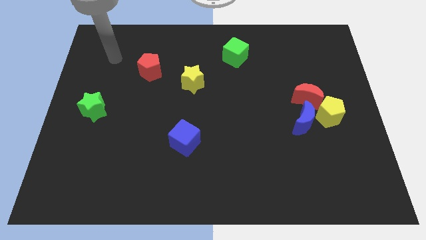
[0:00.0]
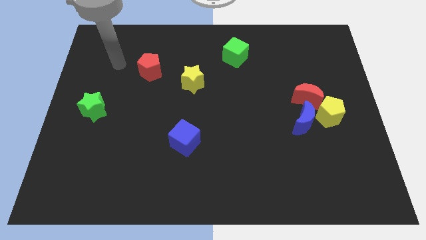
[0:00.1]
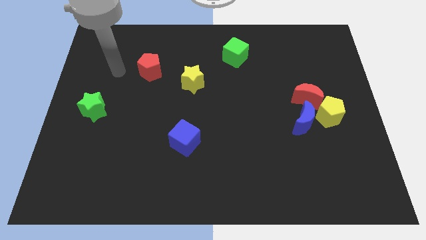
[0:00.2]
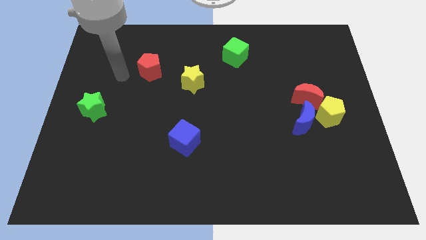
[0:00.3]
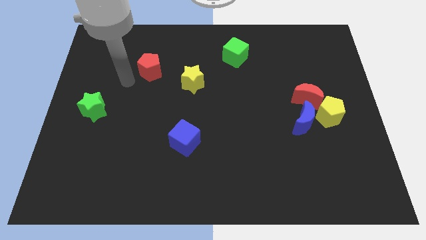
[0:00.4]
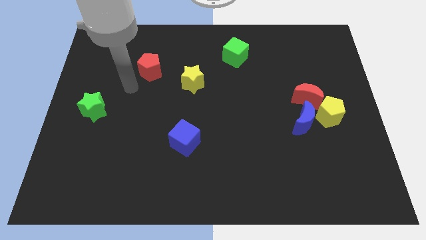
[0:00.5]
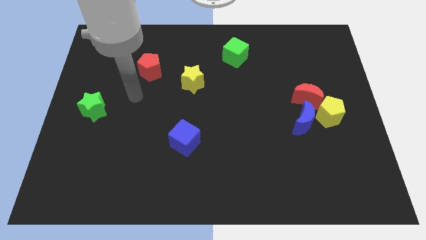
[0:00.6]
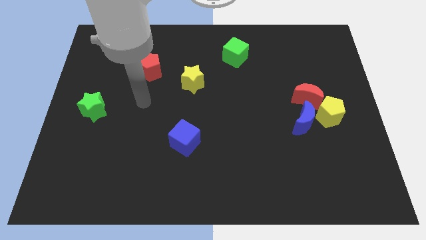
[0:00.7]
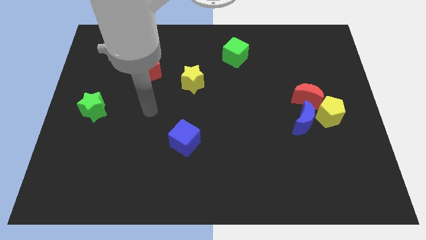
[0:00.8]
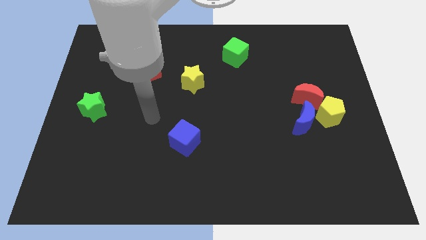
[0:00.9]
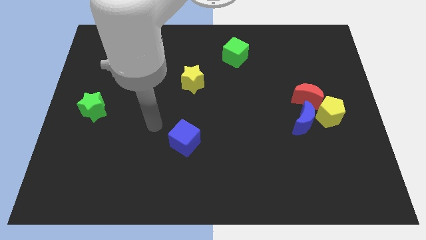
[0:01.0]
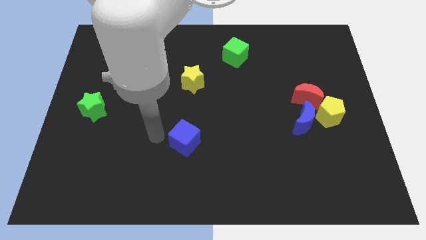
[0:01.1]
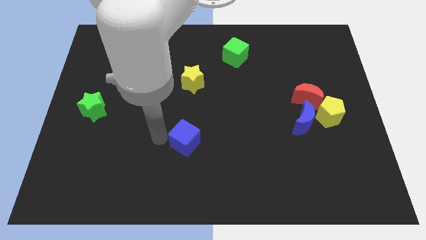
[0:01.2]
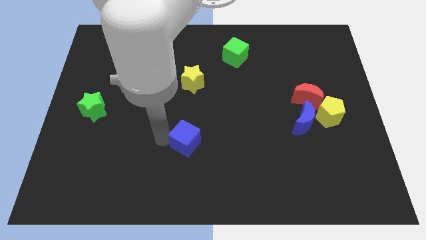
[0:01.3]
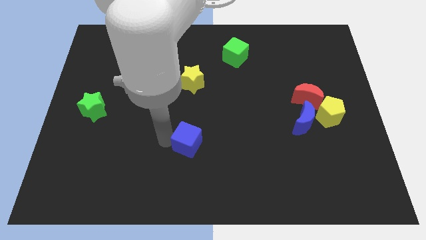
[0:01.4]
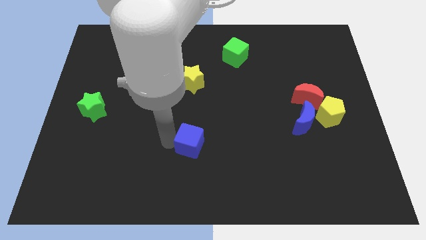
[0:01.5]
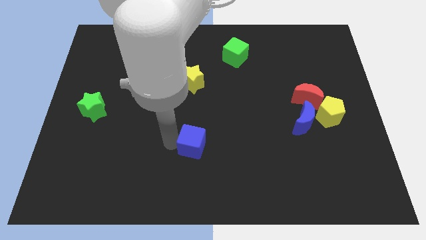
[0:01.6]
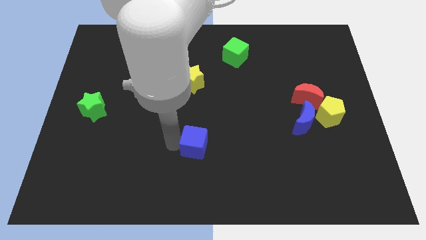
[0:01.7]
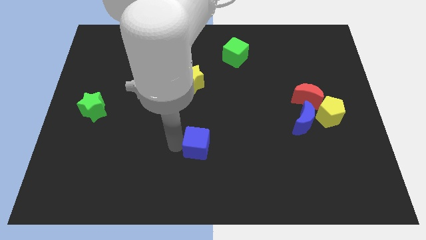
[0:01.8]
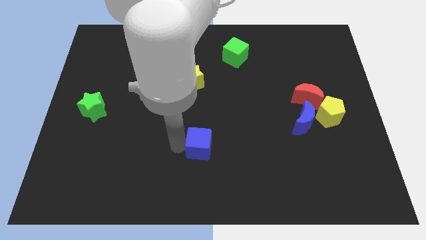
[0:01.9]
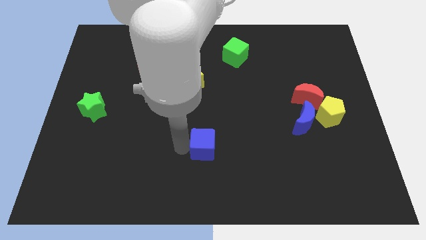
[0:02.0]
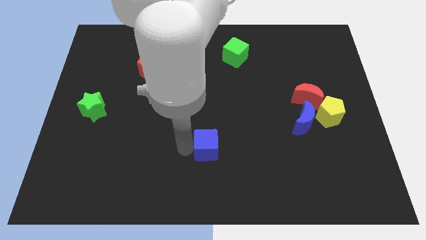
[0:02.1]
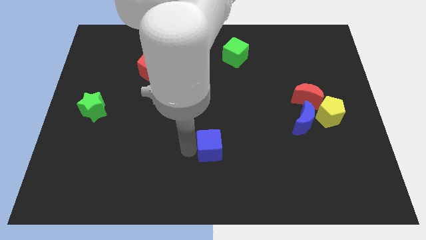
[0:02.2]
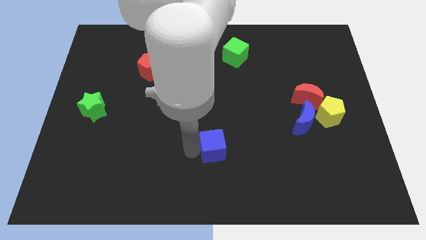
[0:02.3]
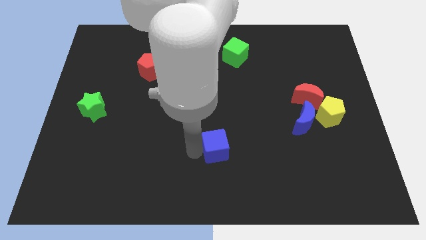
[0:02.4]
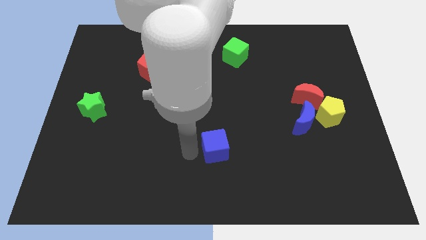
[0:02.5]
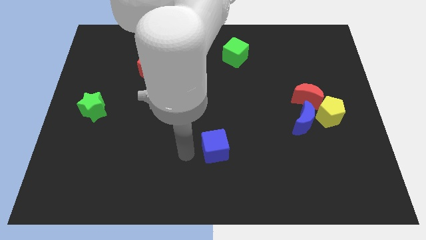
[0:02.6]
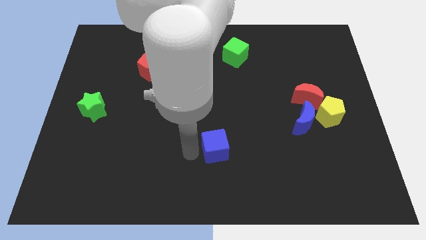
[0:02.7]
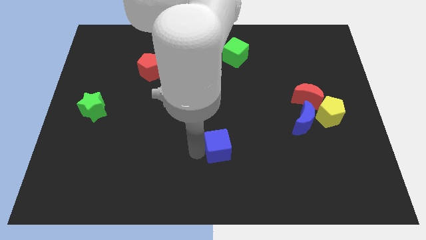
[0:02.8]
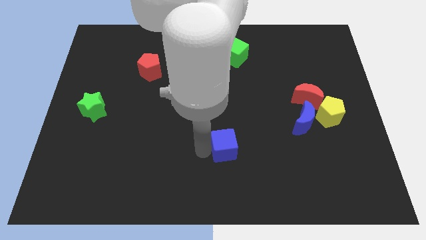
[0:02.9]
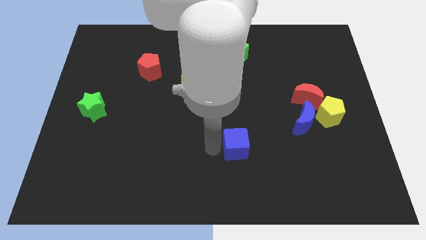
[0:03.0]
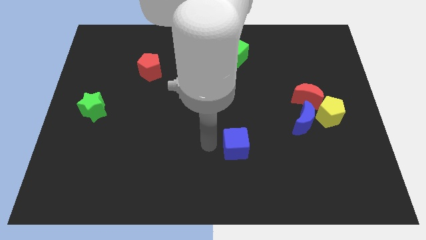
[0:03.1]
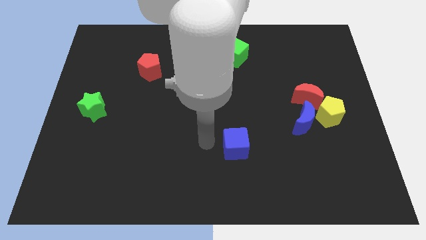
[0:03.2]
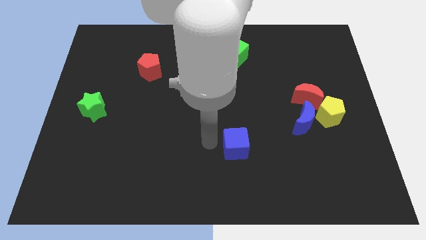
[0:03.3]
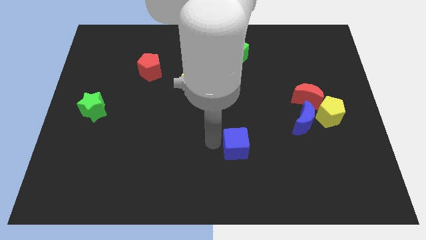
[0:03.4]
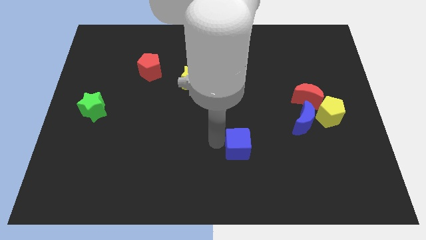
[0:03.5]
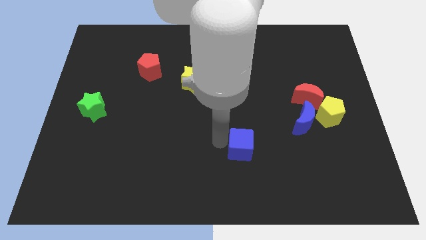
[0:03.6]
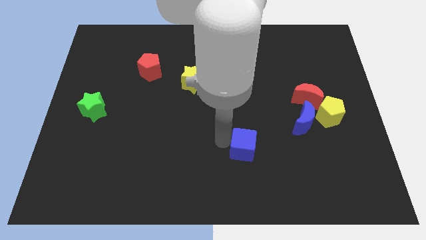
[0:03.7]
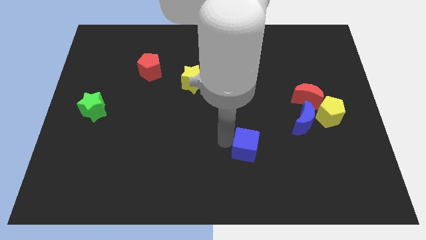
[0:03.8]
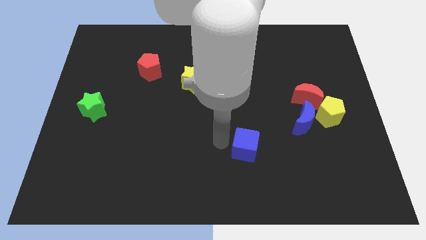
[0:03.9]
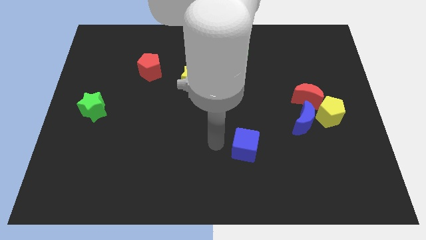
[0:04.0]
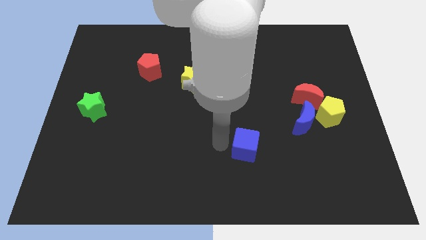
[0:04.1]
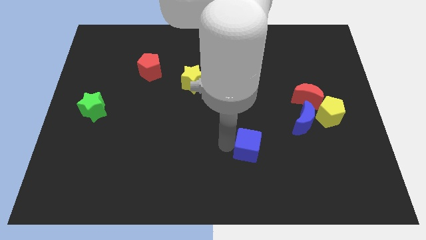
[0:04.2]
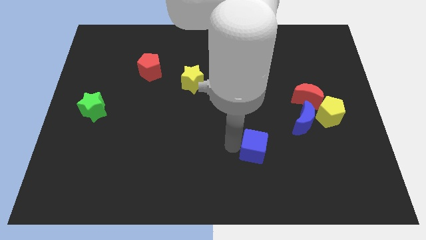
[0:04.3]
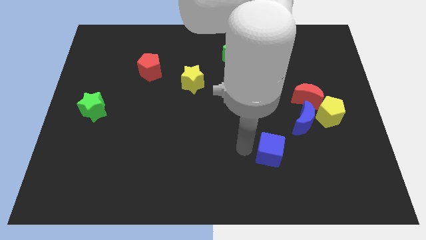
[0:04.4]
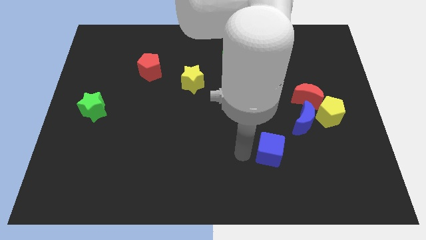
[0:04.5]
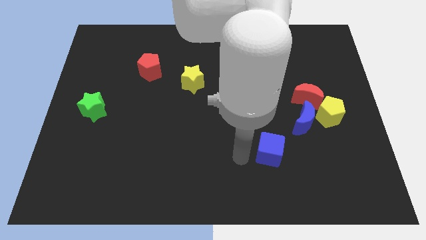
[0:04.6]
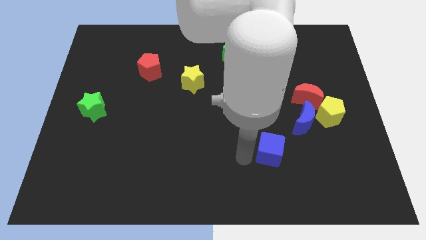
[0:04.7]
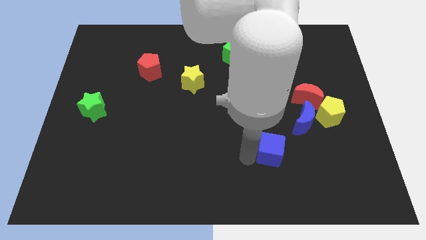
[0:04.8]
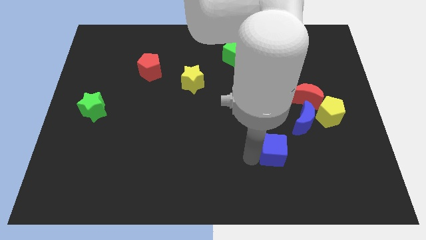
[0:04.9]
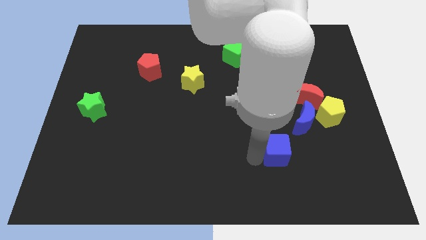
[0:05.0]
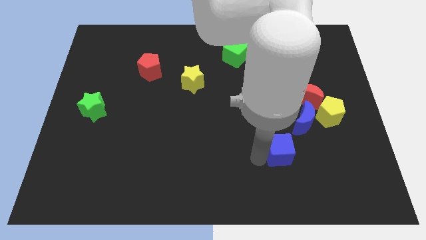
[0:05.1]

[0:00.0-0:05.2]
move the blue cube to the right

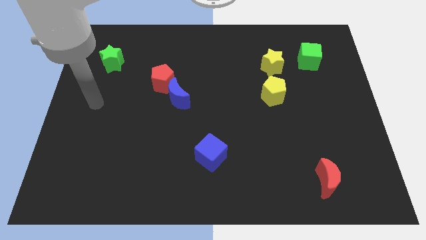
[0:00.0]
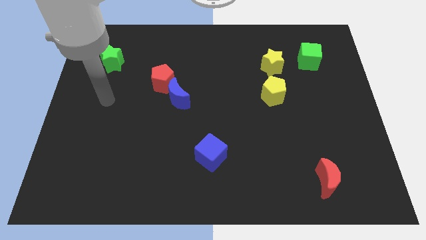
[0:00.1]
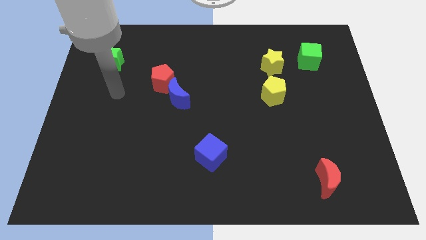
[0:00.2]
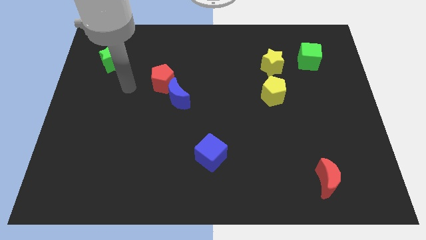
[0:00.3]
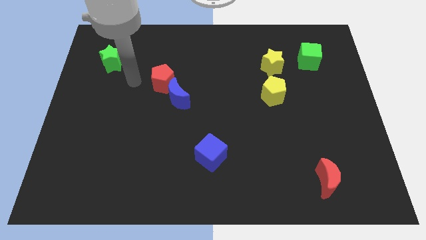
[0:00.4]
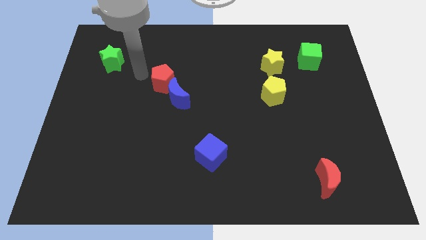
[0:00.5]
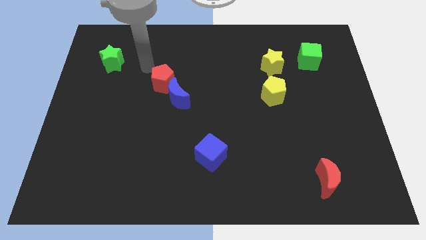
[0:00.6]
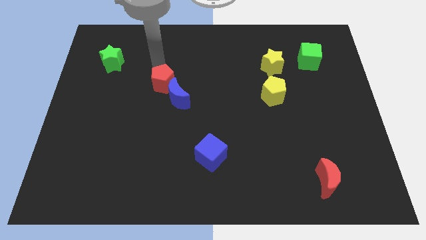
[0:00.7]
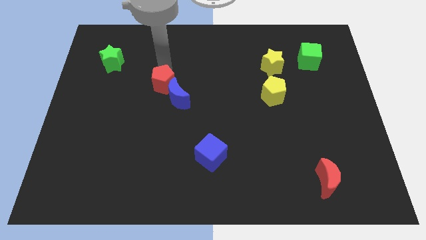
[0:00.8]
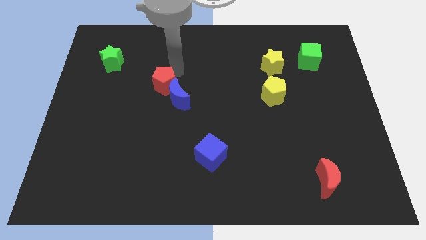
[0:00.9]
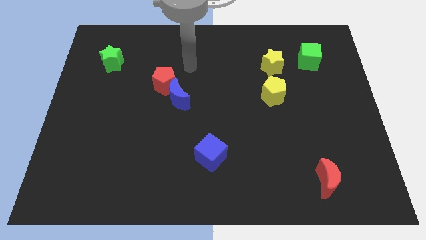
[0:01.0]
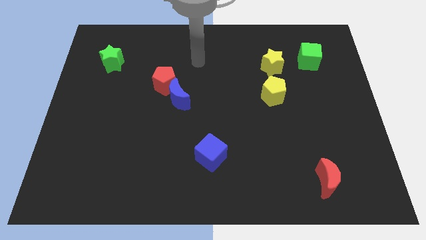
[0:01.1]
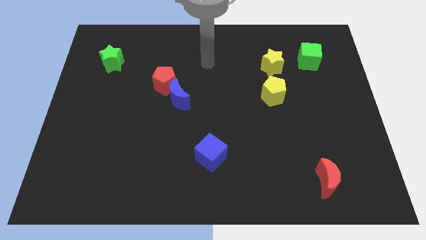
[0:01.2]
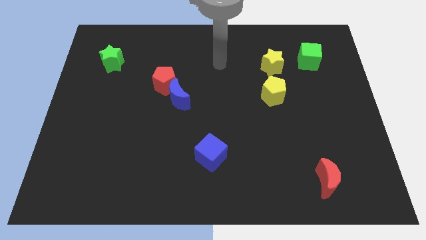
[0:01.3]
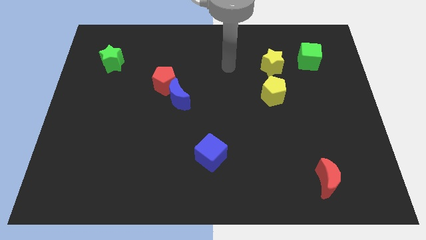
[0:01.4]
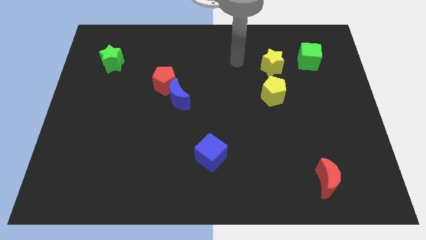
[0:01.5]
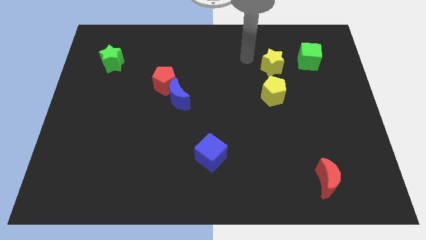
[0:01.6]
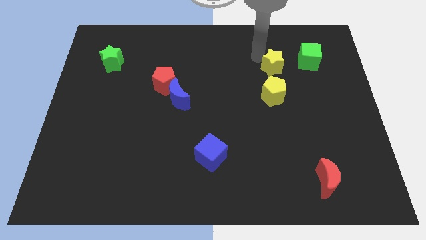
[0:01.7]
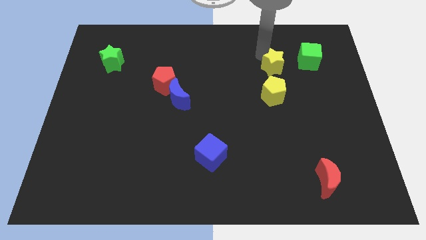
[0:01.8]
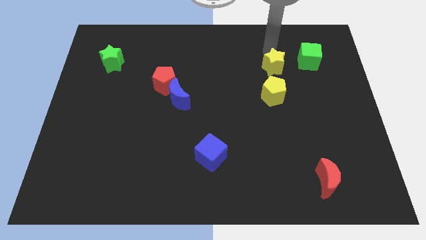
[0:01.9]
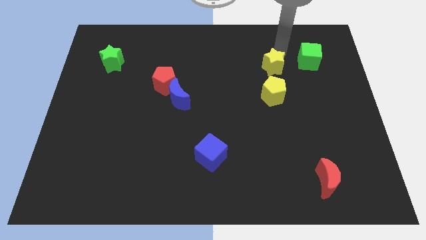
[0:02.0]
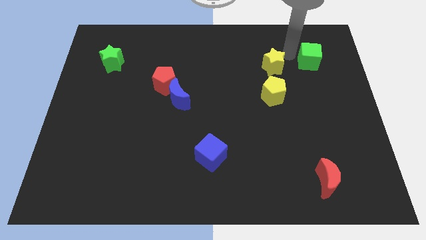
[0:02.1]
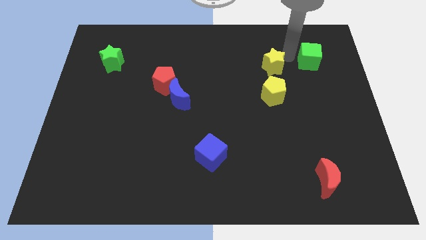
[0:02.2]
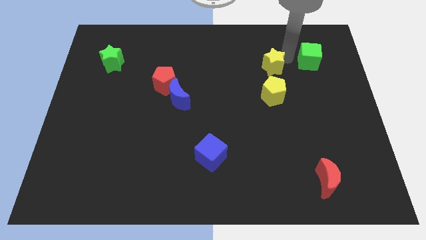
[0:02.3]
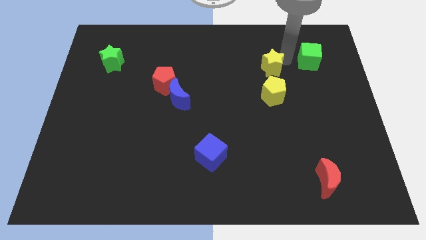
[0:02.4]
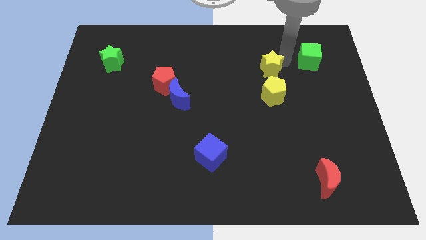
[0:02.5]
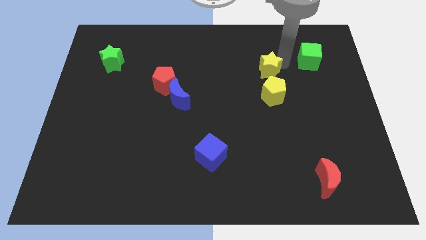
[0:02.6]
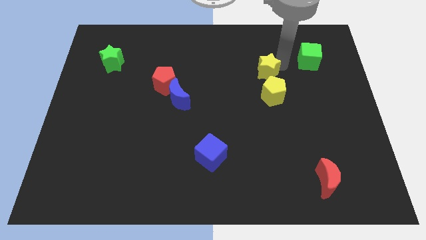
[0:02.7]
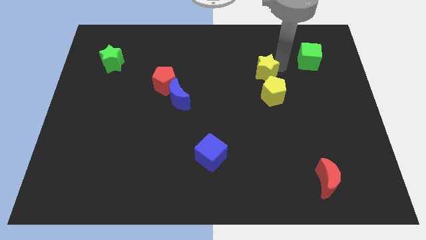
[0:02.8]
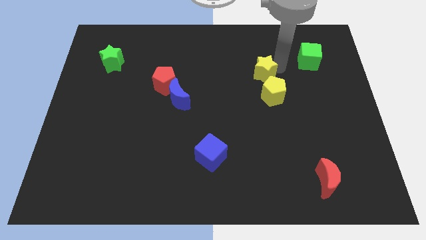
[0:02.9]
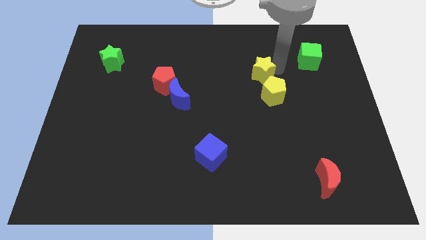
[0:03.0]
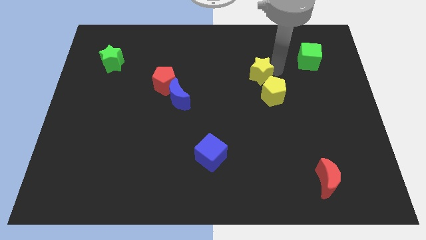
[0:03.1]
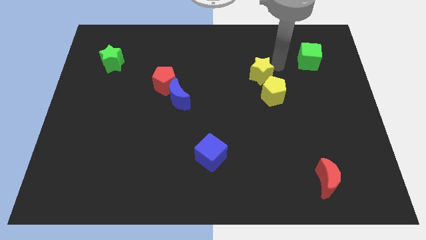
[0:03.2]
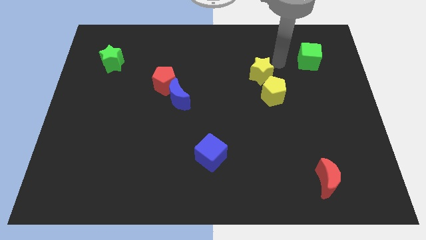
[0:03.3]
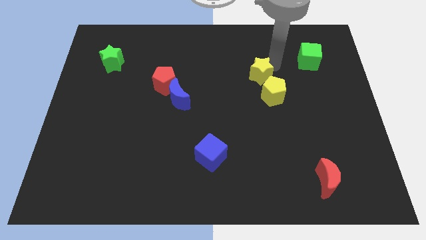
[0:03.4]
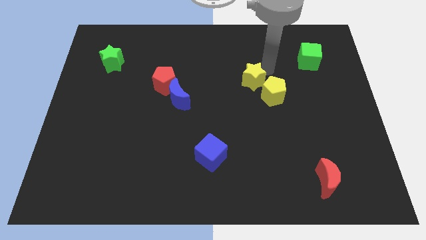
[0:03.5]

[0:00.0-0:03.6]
slide the yellow star somewhat diagonally down and left
